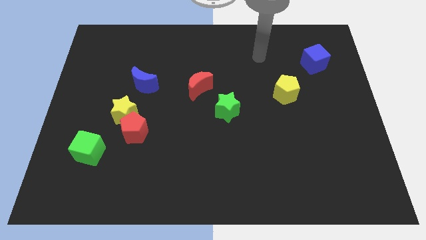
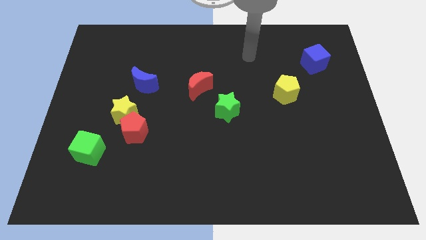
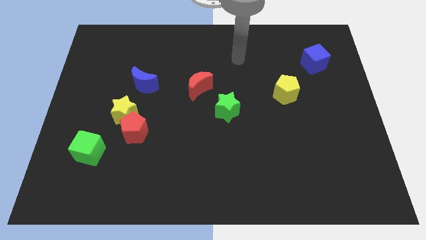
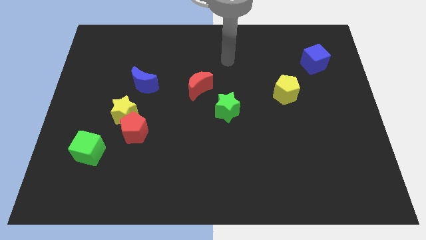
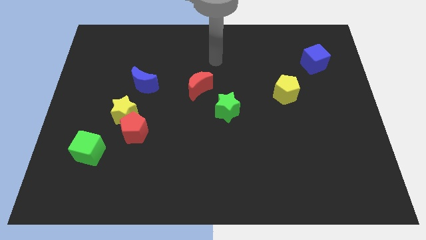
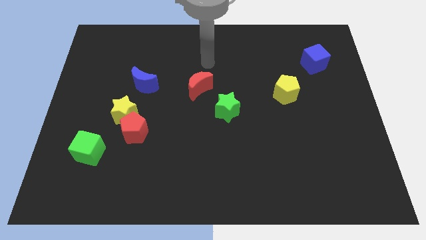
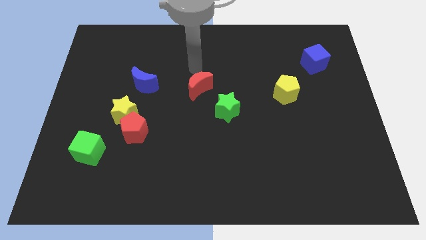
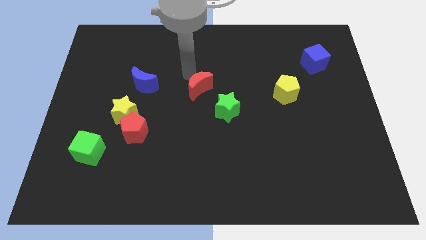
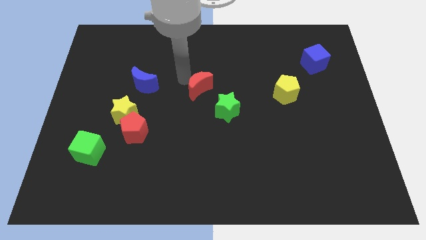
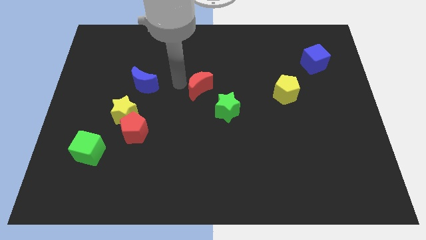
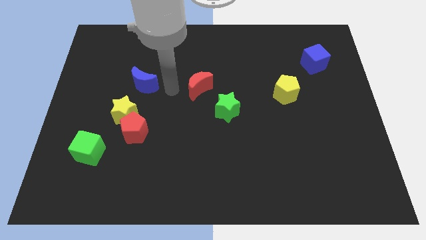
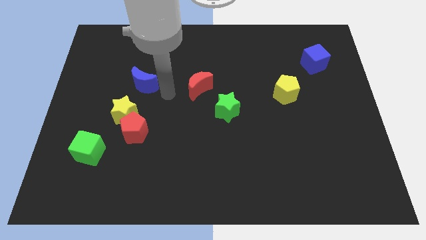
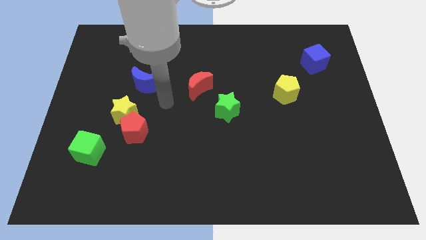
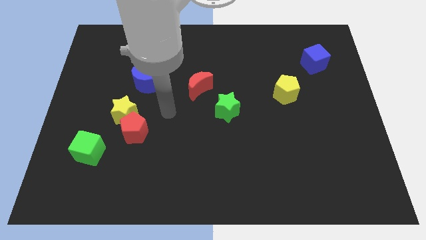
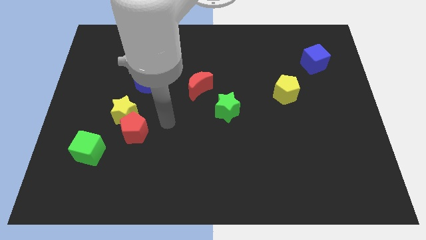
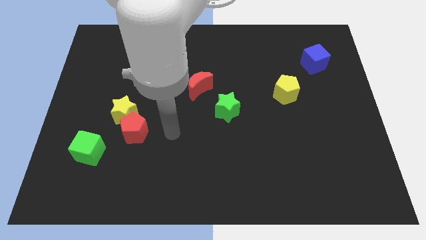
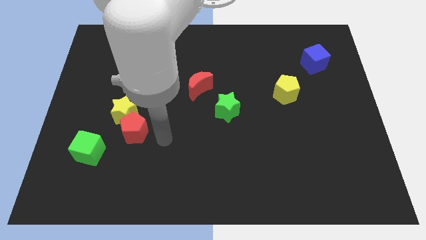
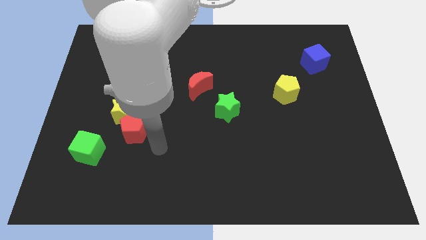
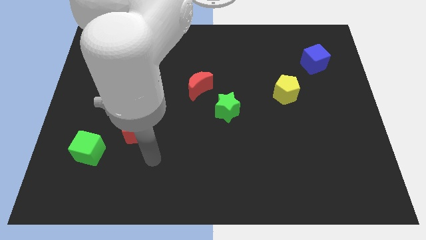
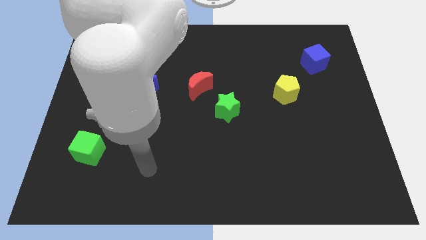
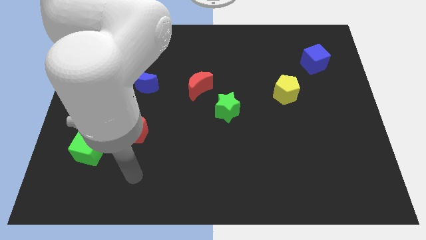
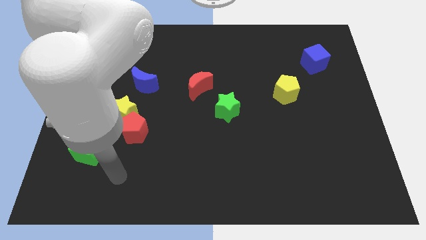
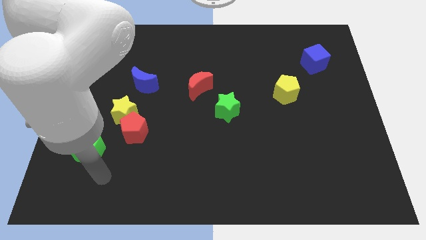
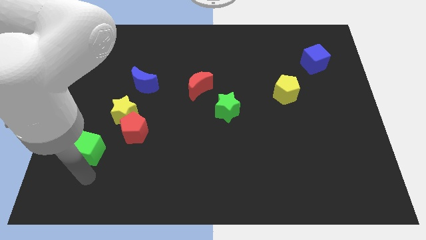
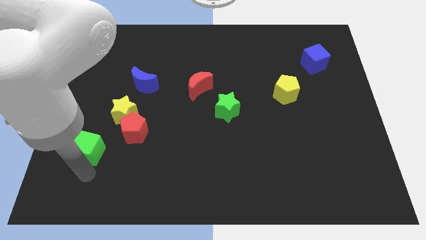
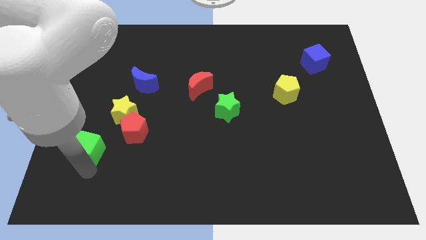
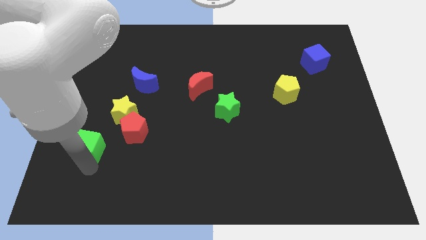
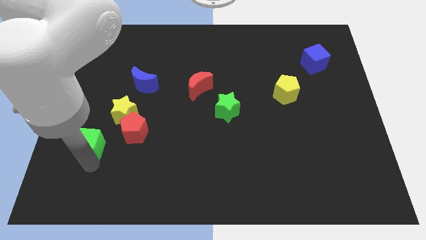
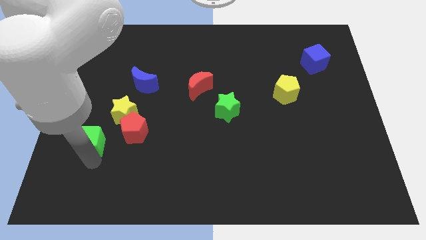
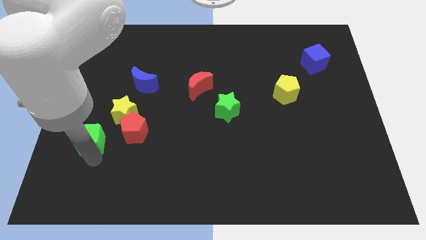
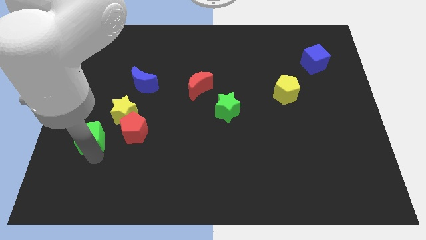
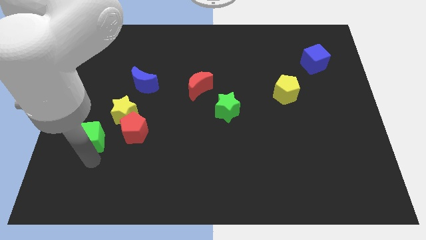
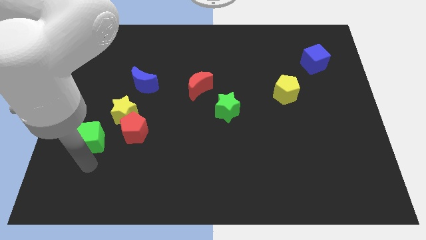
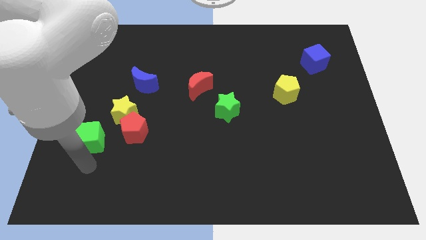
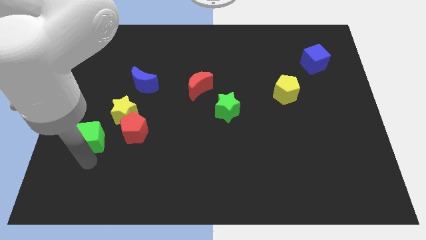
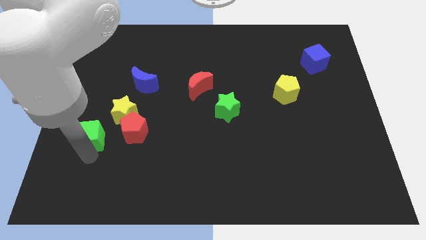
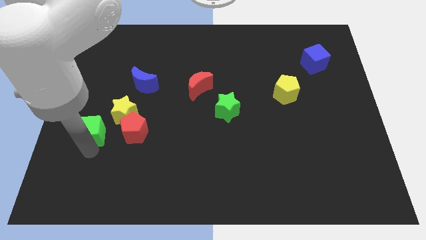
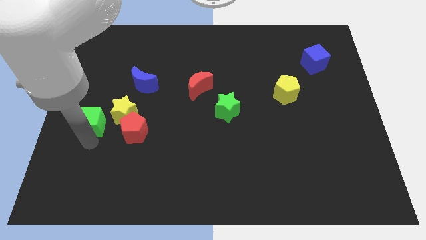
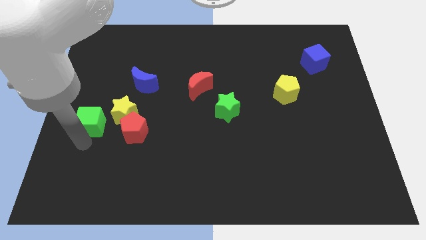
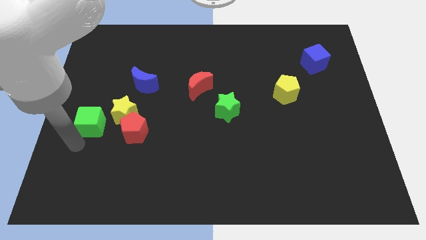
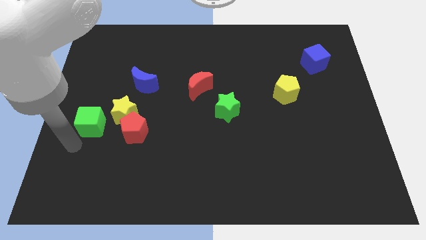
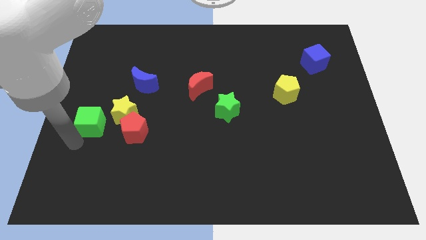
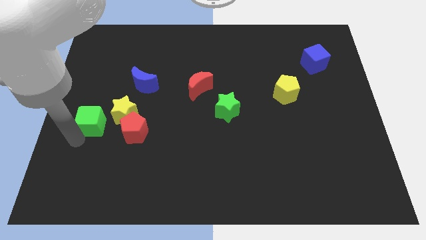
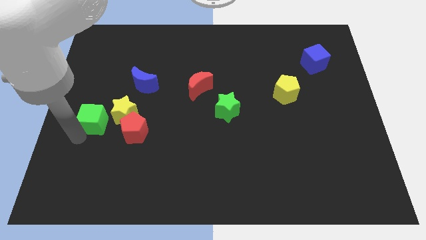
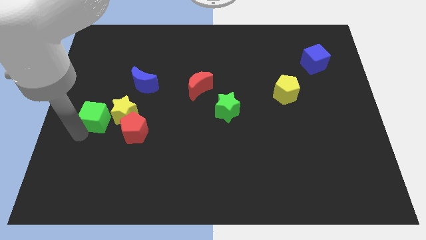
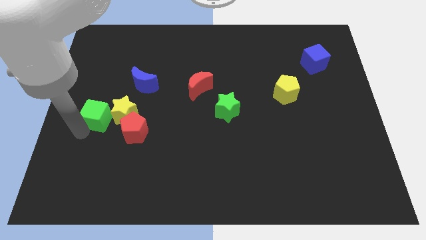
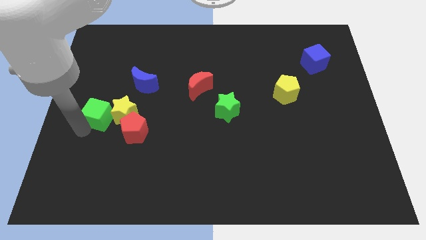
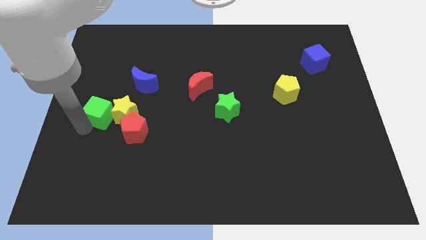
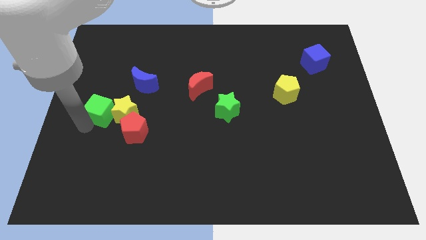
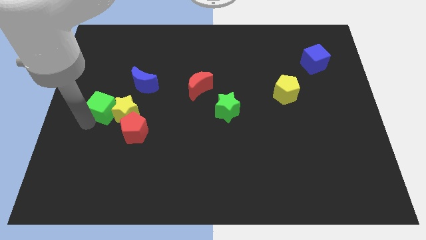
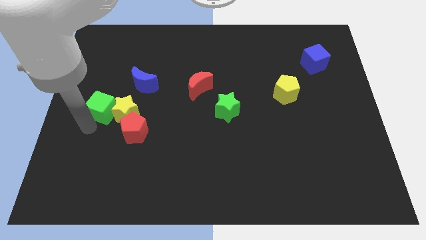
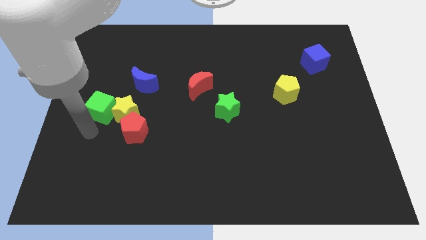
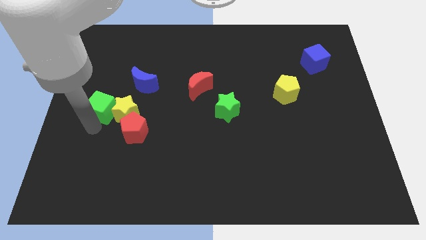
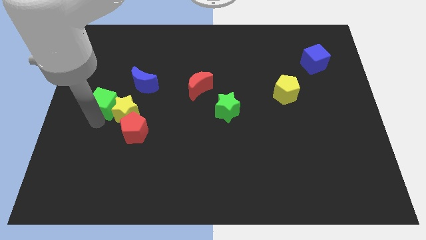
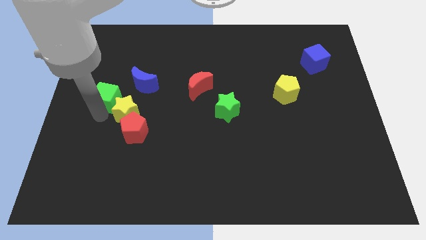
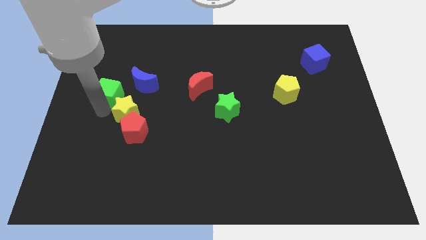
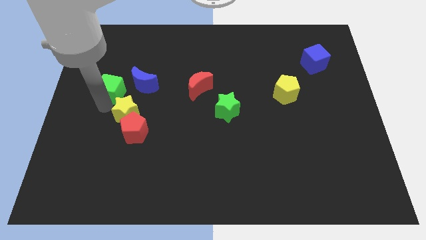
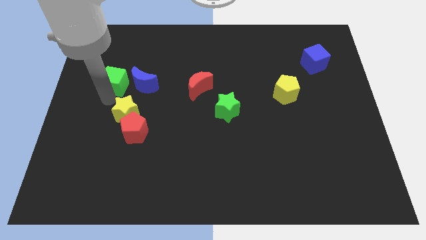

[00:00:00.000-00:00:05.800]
move the green cube to the top left of the blue moon

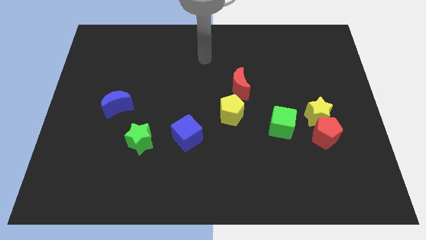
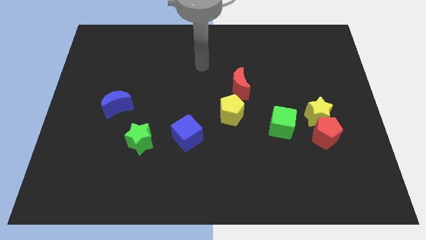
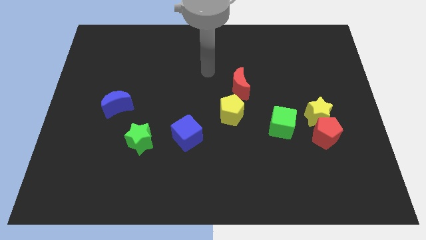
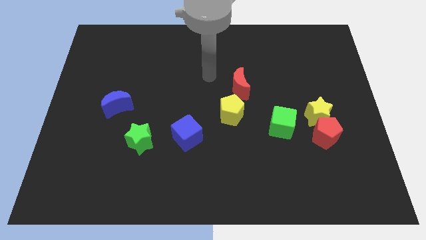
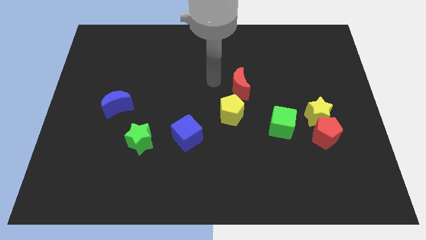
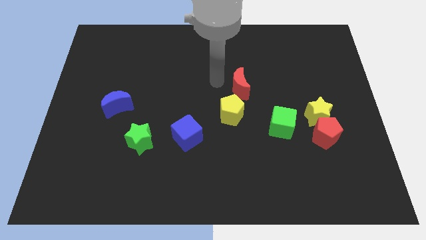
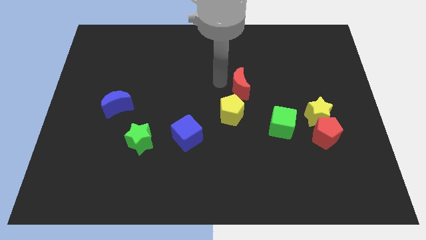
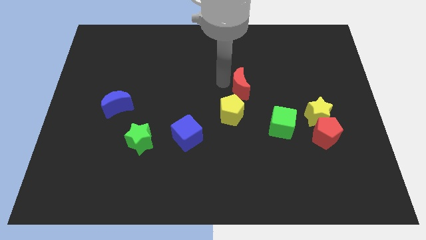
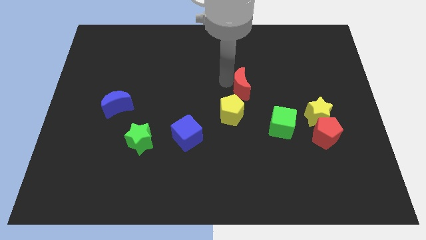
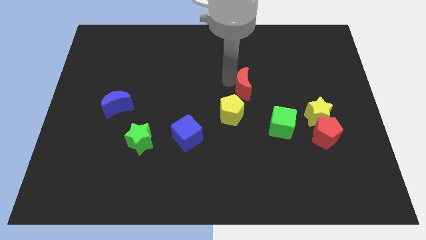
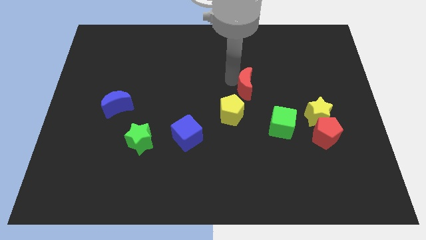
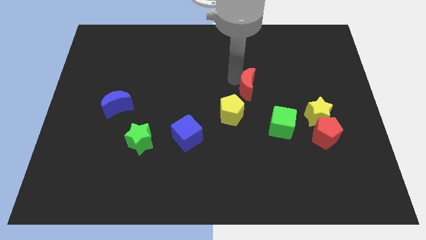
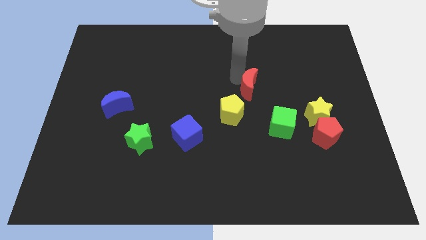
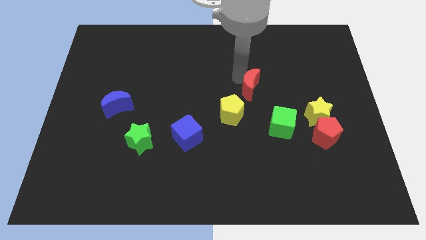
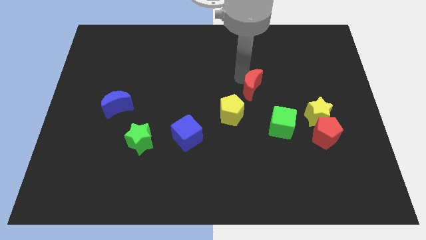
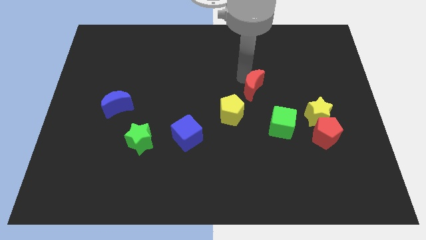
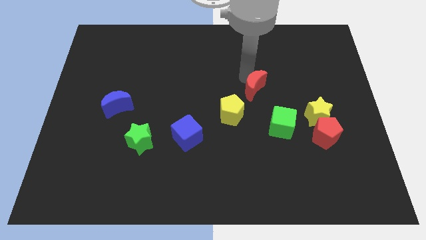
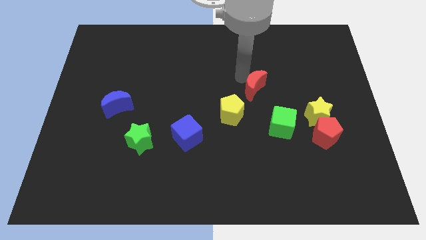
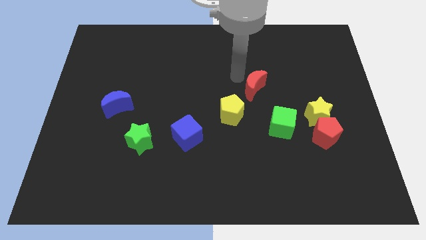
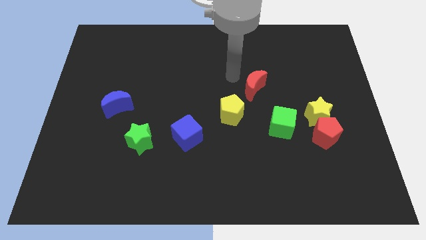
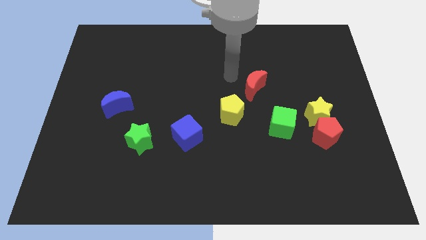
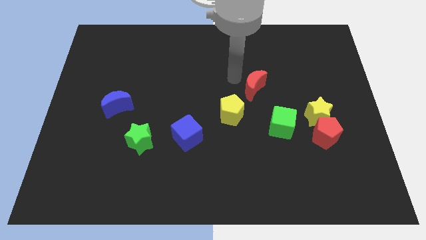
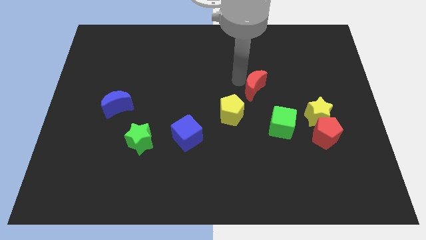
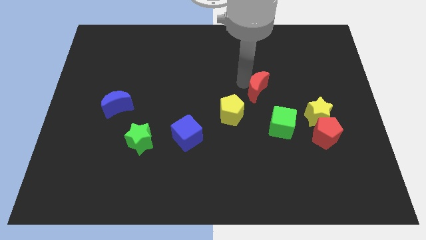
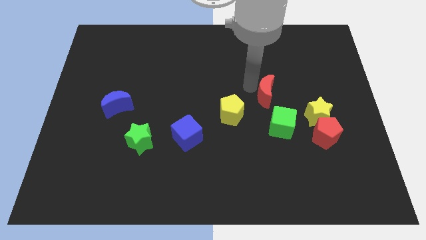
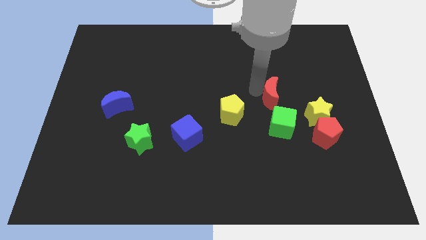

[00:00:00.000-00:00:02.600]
slide the red moon to the top left side of the yellow star
